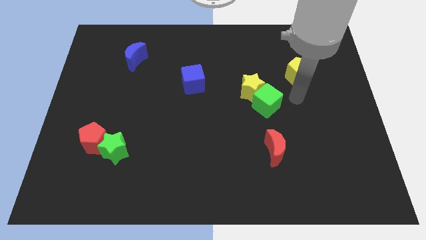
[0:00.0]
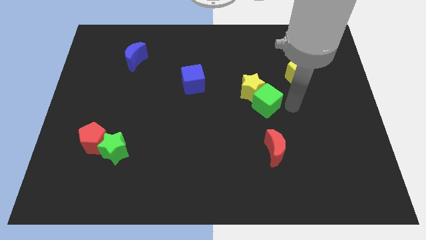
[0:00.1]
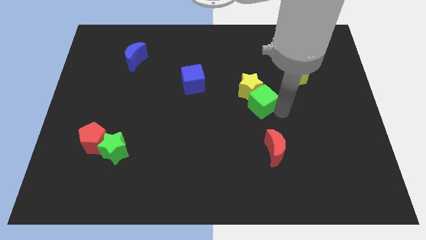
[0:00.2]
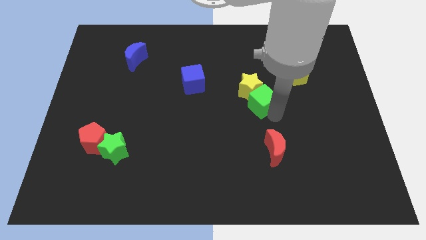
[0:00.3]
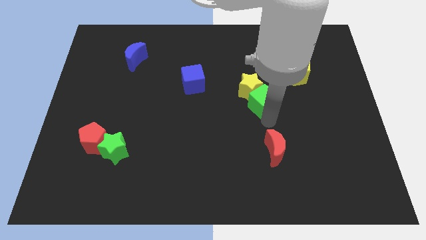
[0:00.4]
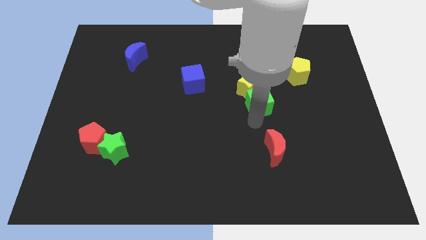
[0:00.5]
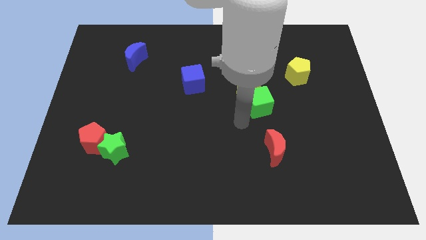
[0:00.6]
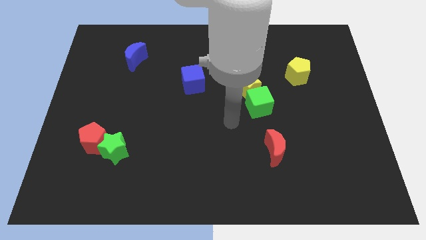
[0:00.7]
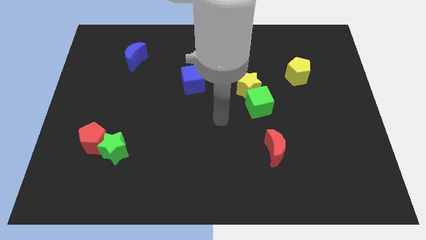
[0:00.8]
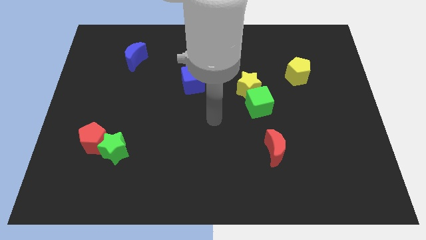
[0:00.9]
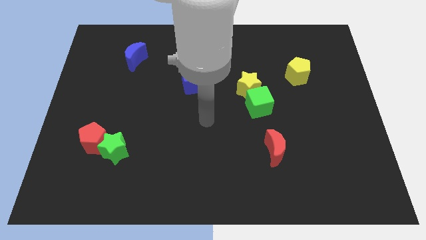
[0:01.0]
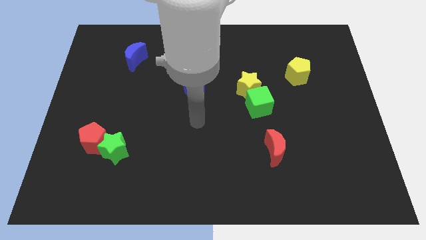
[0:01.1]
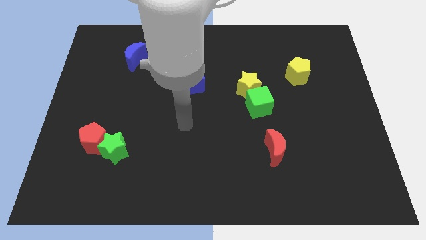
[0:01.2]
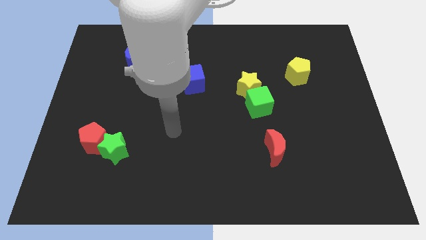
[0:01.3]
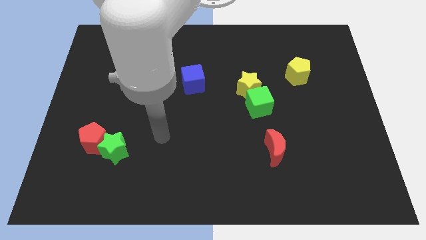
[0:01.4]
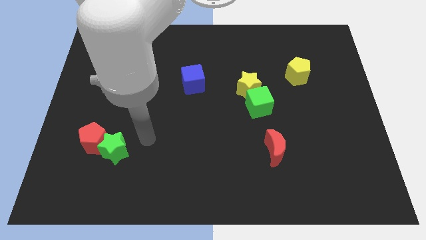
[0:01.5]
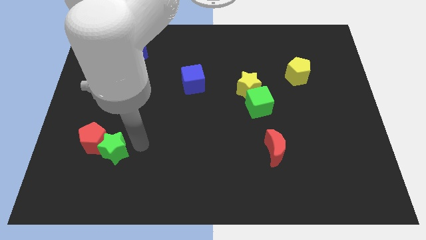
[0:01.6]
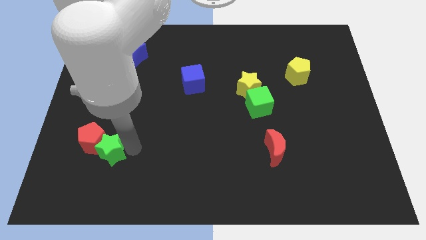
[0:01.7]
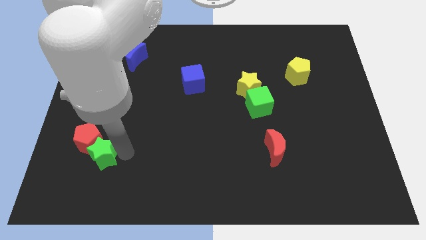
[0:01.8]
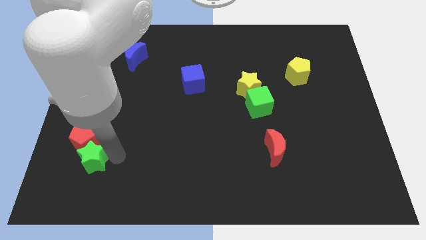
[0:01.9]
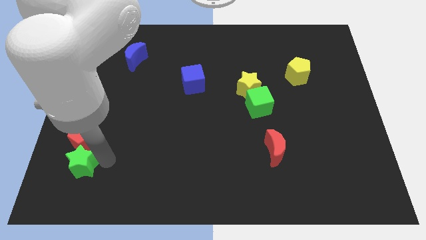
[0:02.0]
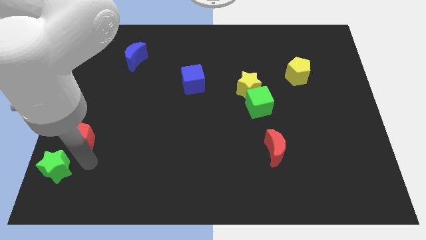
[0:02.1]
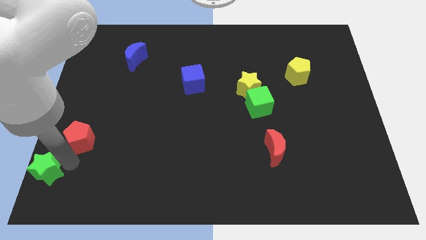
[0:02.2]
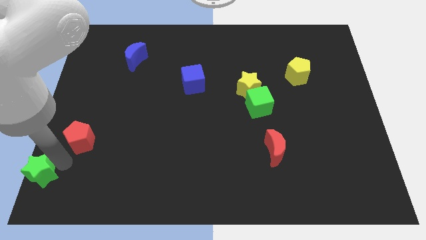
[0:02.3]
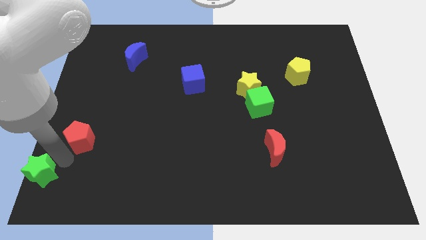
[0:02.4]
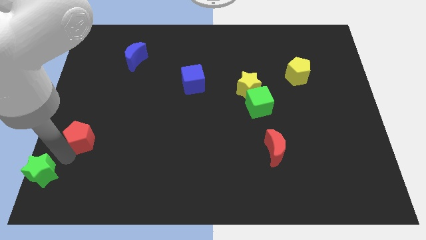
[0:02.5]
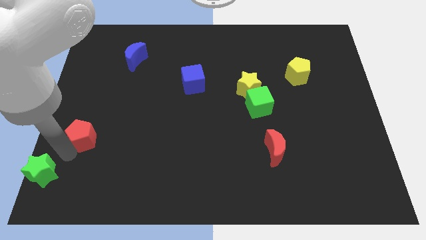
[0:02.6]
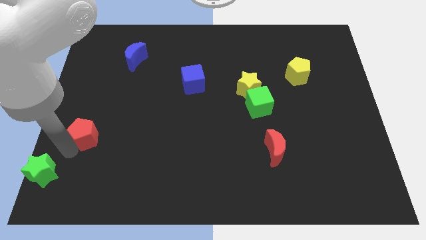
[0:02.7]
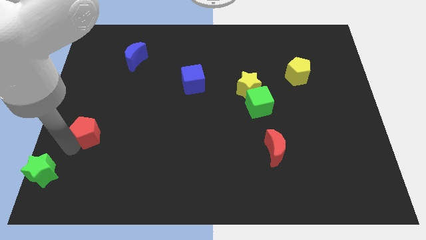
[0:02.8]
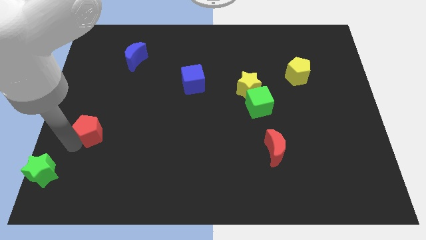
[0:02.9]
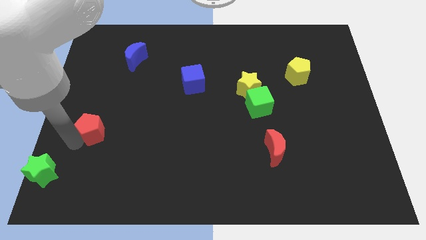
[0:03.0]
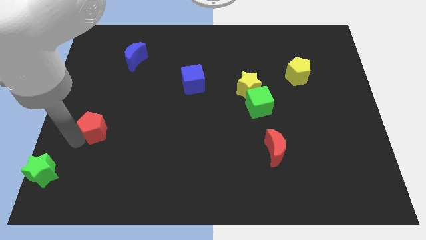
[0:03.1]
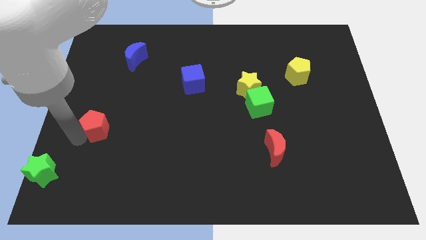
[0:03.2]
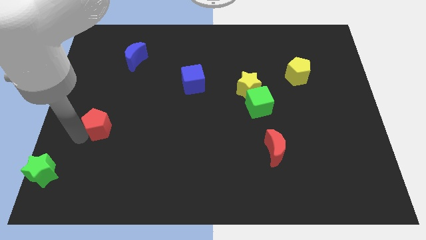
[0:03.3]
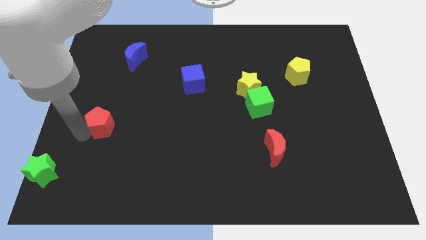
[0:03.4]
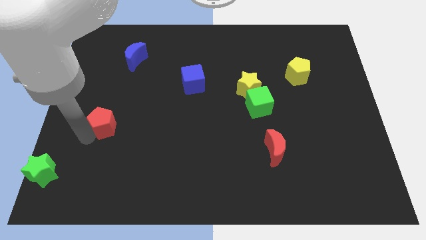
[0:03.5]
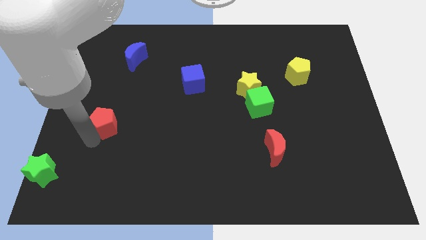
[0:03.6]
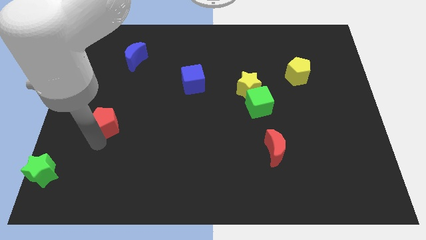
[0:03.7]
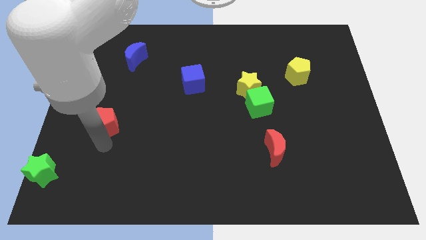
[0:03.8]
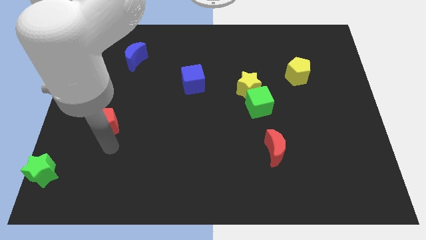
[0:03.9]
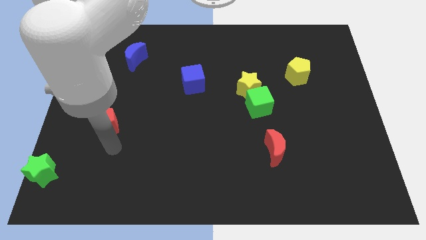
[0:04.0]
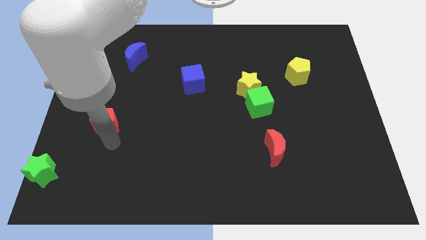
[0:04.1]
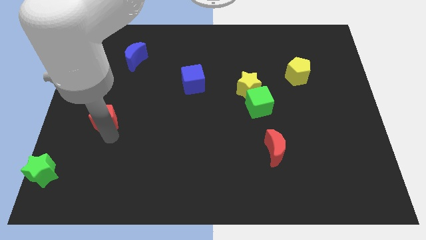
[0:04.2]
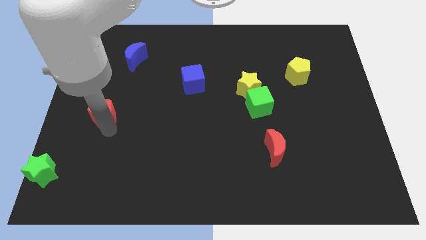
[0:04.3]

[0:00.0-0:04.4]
move the red pentagon up slightly

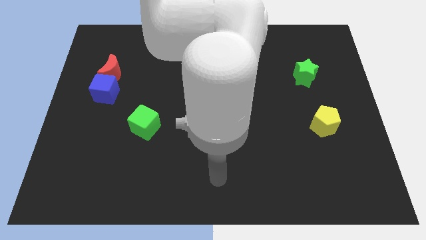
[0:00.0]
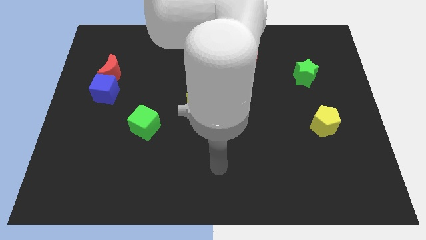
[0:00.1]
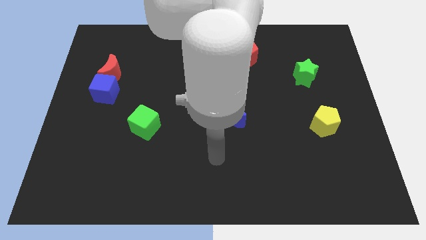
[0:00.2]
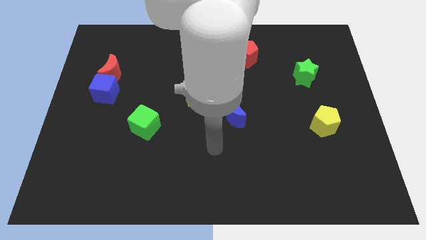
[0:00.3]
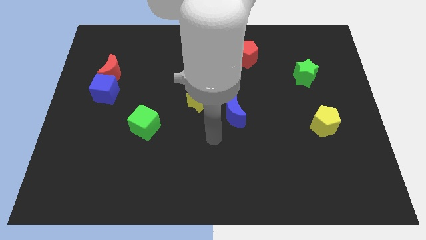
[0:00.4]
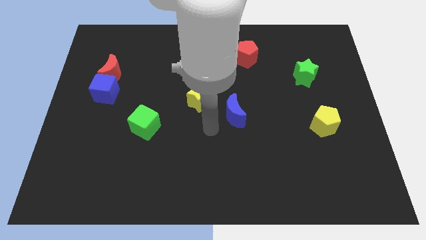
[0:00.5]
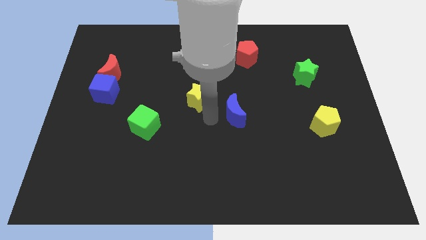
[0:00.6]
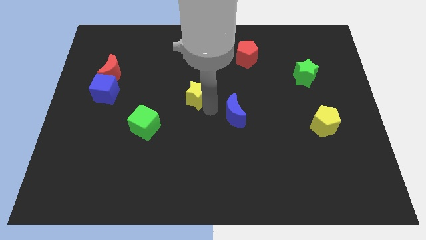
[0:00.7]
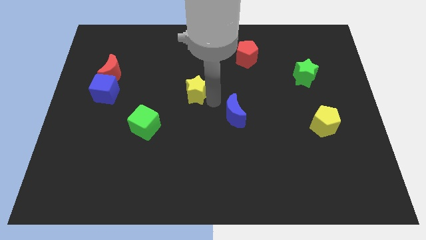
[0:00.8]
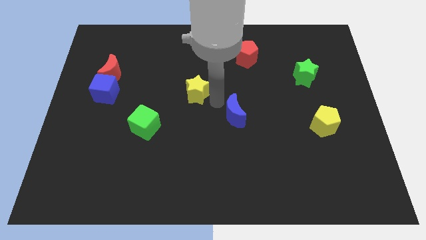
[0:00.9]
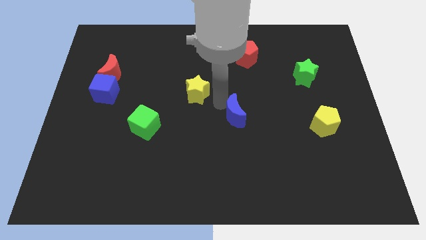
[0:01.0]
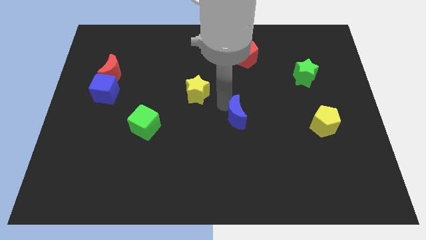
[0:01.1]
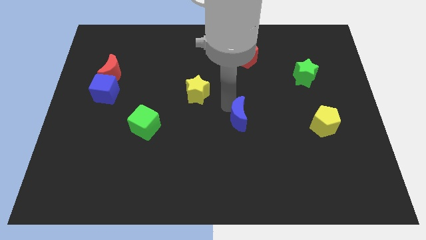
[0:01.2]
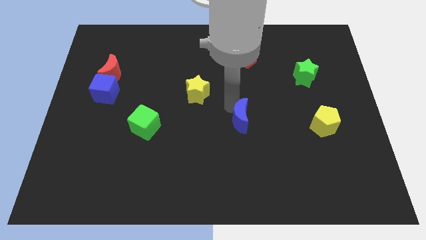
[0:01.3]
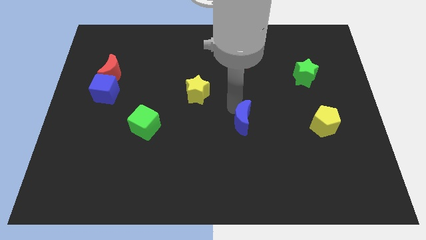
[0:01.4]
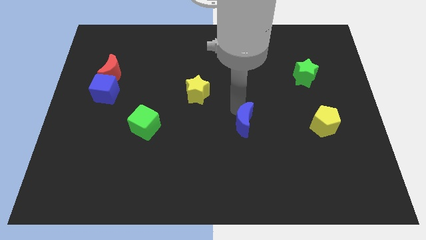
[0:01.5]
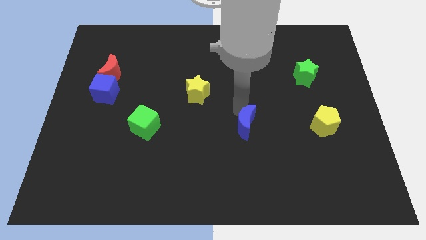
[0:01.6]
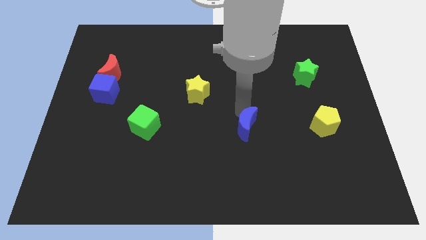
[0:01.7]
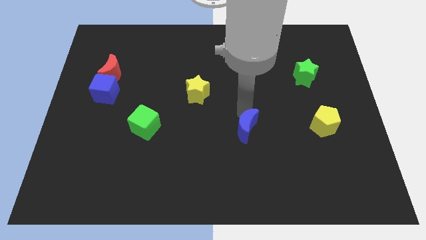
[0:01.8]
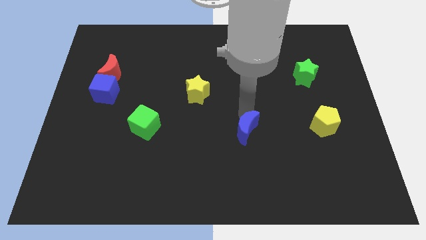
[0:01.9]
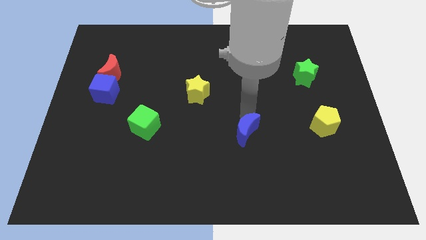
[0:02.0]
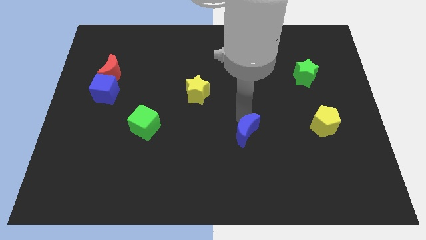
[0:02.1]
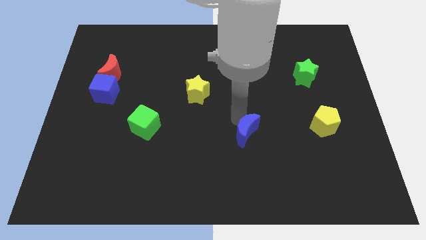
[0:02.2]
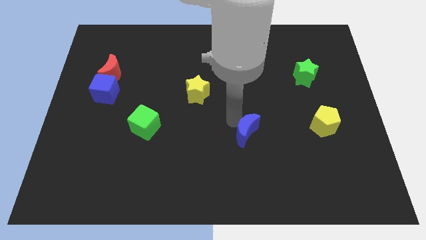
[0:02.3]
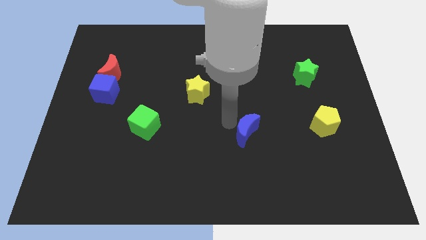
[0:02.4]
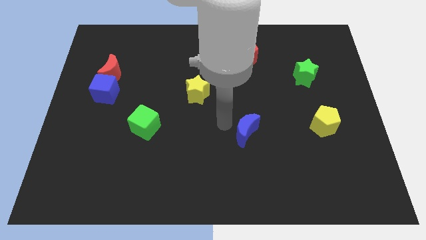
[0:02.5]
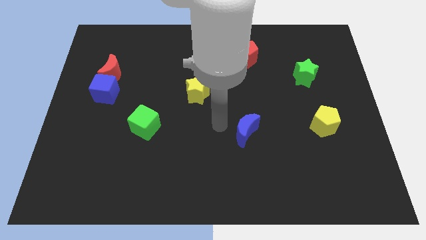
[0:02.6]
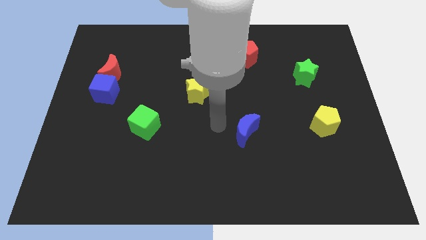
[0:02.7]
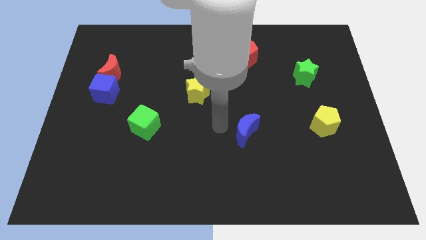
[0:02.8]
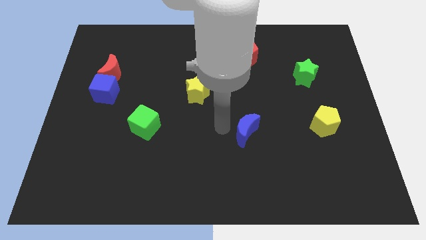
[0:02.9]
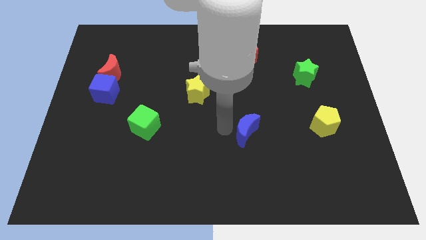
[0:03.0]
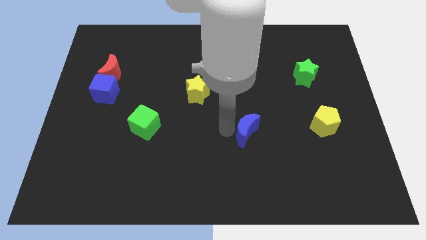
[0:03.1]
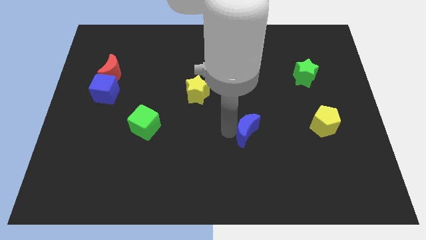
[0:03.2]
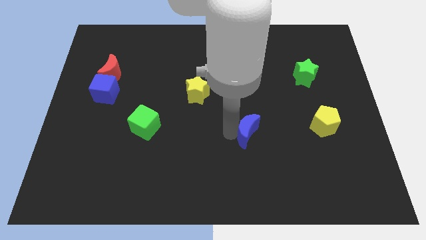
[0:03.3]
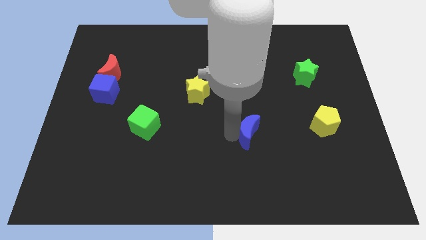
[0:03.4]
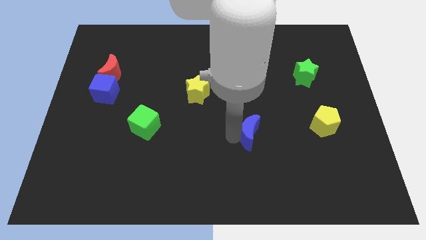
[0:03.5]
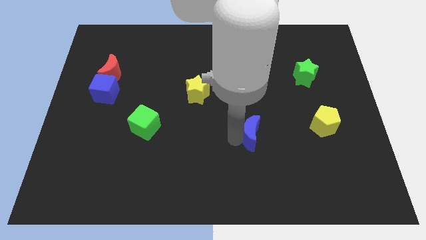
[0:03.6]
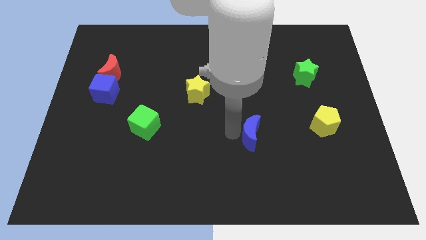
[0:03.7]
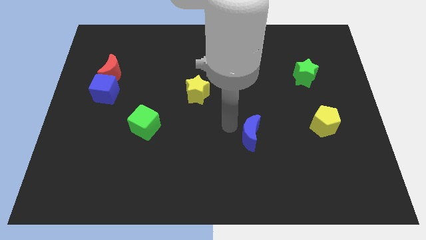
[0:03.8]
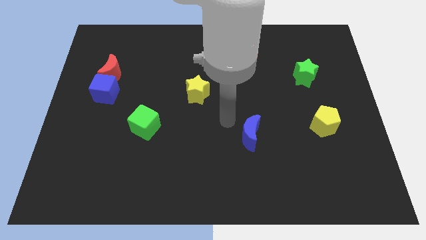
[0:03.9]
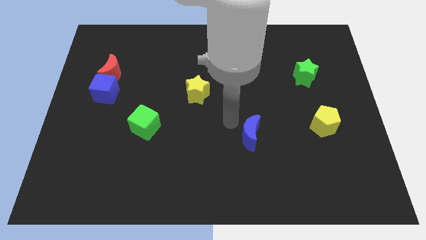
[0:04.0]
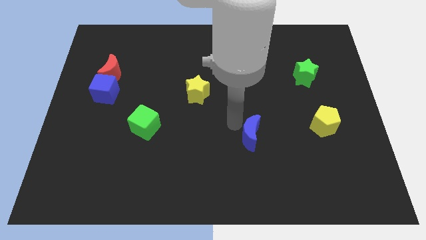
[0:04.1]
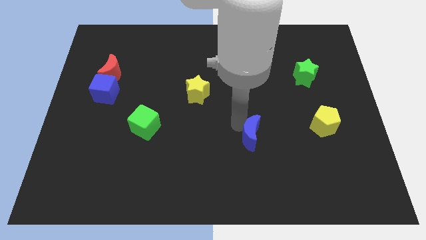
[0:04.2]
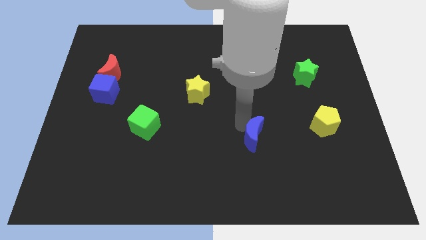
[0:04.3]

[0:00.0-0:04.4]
move the blue moon downwards and to the right diagonally slightly
